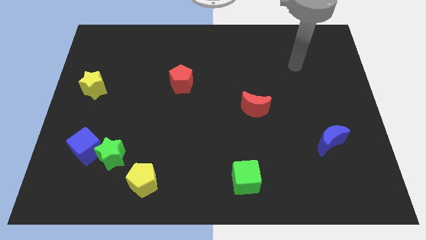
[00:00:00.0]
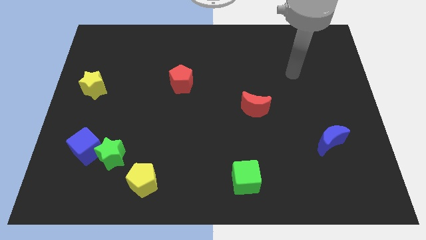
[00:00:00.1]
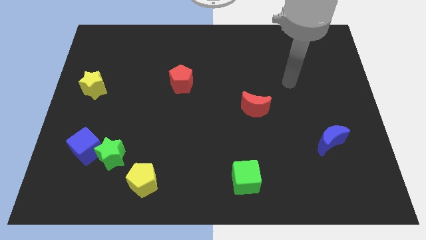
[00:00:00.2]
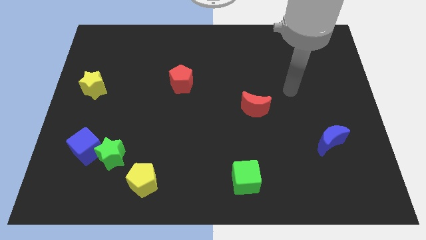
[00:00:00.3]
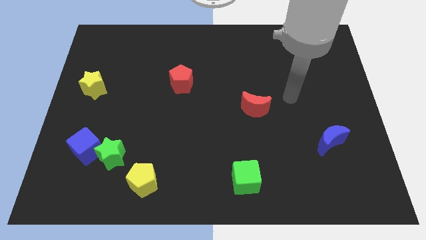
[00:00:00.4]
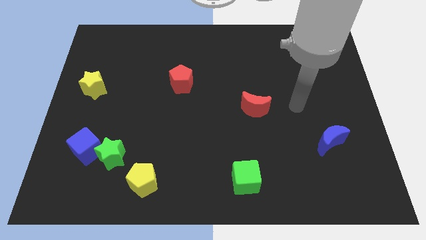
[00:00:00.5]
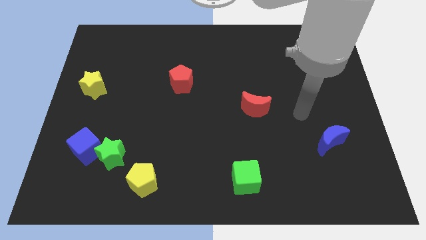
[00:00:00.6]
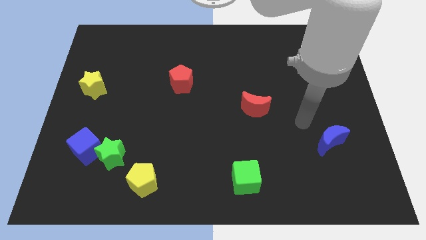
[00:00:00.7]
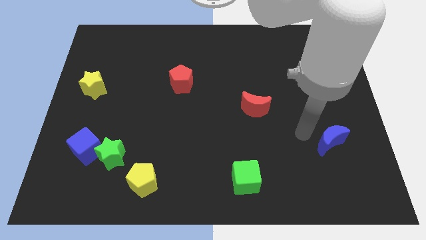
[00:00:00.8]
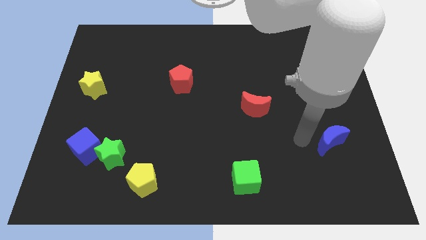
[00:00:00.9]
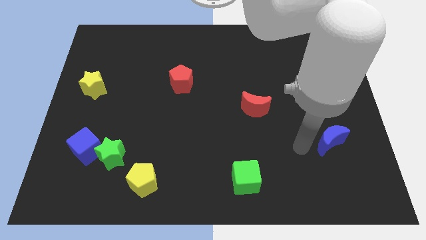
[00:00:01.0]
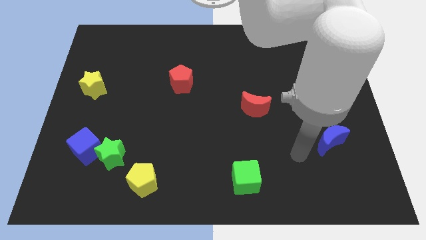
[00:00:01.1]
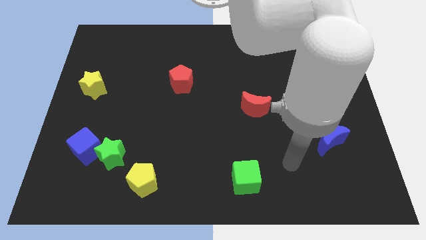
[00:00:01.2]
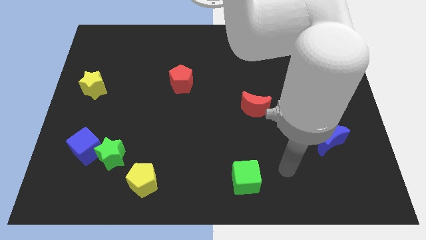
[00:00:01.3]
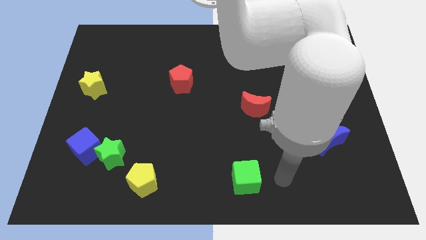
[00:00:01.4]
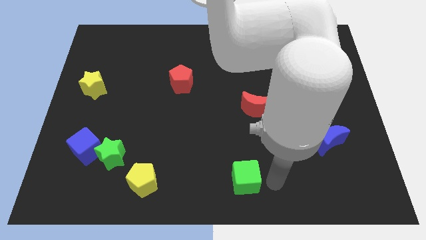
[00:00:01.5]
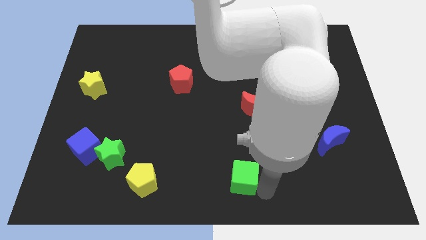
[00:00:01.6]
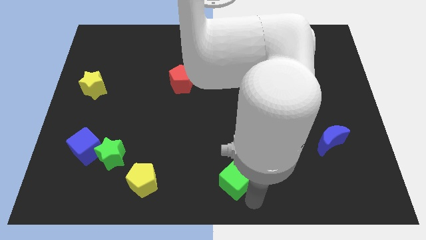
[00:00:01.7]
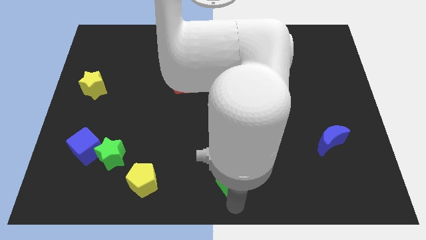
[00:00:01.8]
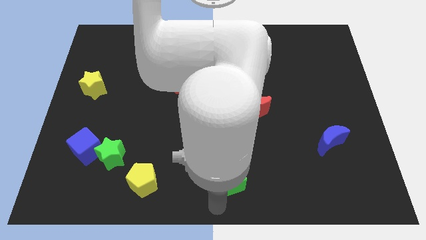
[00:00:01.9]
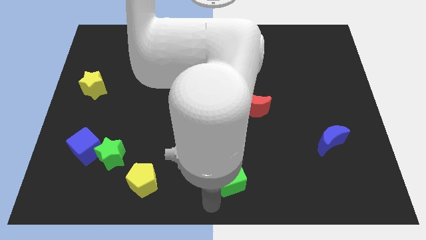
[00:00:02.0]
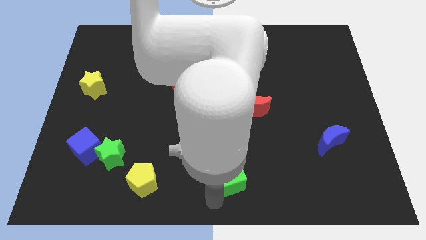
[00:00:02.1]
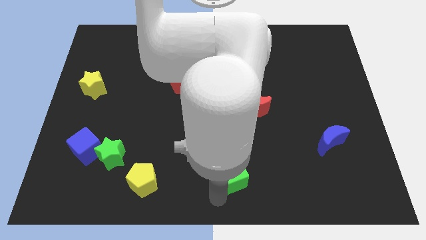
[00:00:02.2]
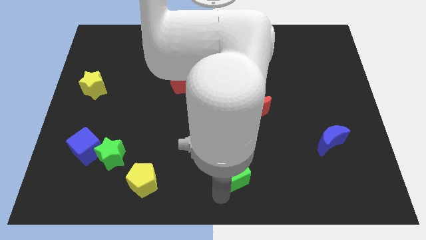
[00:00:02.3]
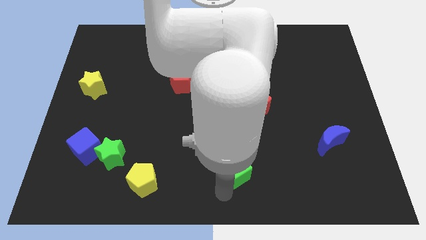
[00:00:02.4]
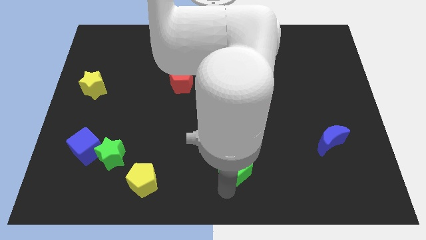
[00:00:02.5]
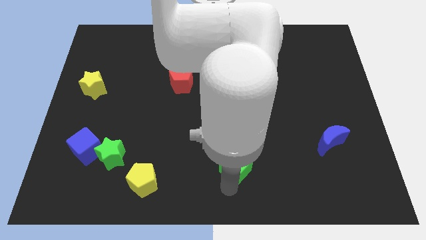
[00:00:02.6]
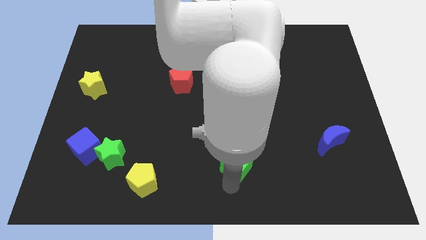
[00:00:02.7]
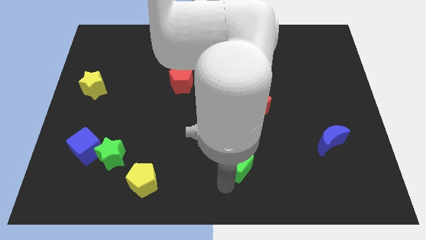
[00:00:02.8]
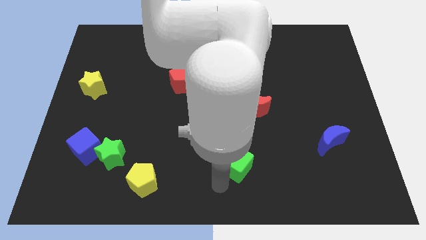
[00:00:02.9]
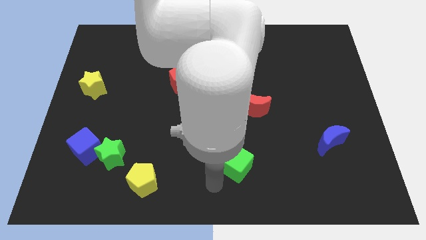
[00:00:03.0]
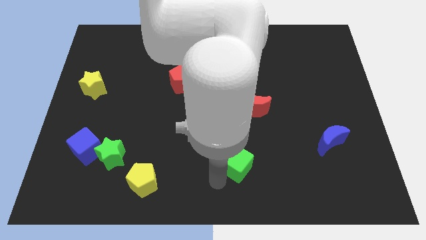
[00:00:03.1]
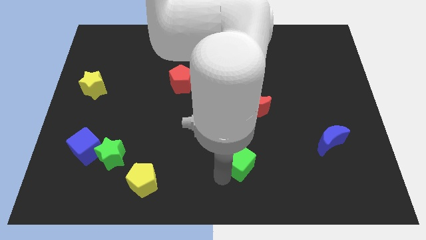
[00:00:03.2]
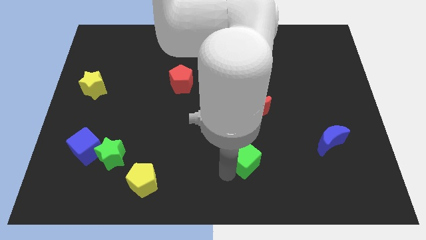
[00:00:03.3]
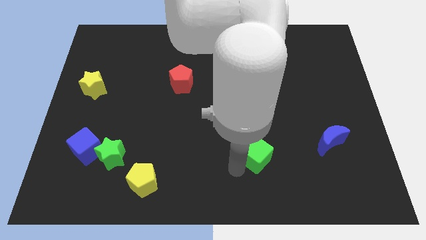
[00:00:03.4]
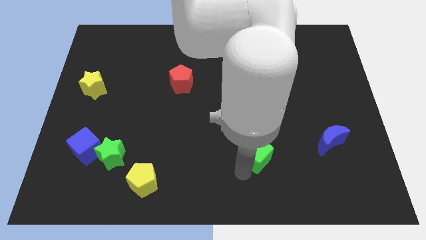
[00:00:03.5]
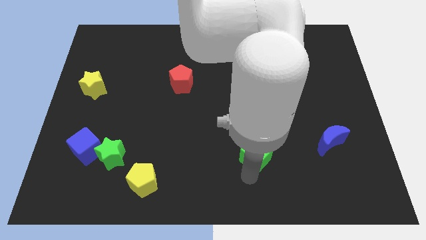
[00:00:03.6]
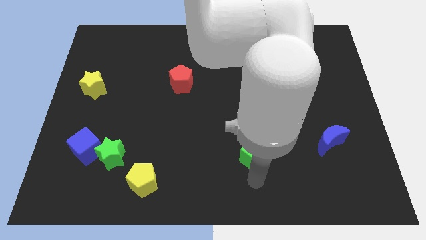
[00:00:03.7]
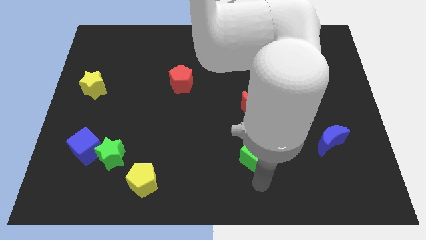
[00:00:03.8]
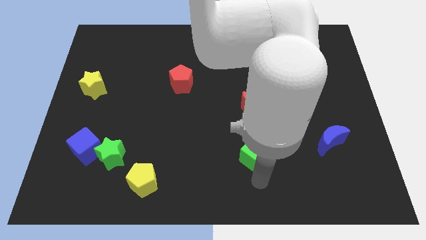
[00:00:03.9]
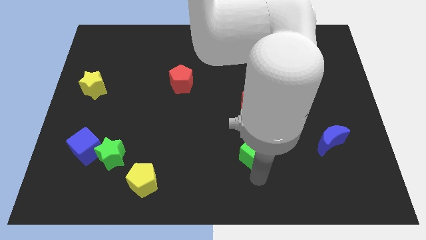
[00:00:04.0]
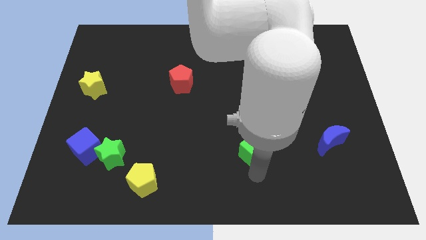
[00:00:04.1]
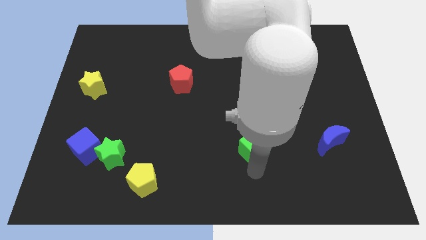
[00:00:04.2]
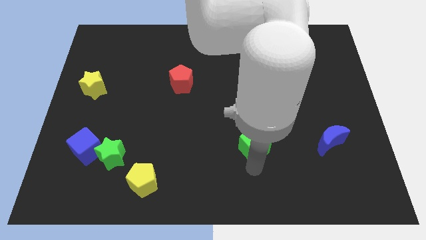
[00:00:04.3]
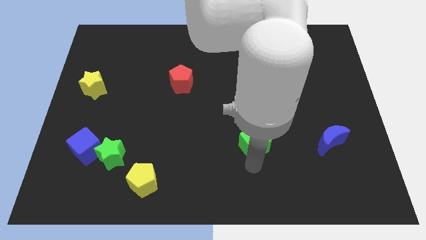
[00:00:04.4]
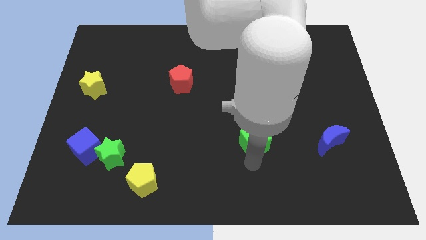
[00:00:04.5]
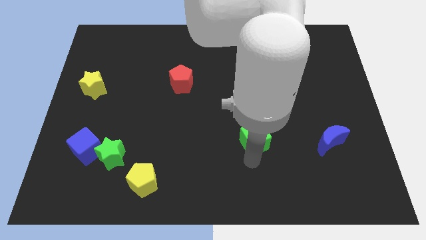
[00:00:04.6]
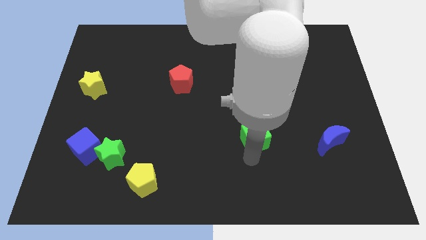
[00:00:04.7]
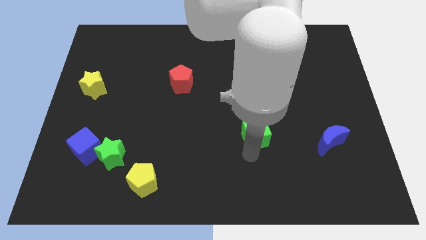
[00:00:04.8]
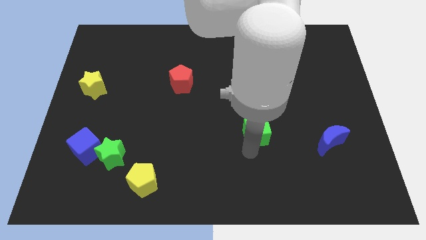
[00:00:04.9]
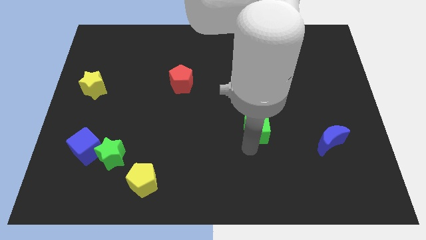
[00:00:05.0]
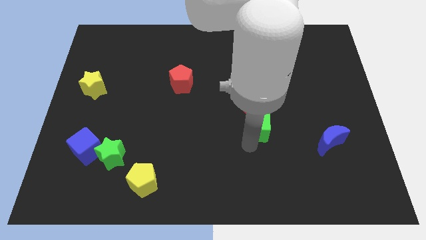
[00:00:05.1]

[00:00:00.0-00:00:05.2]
put the green cube to the red moon

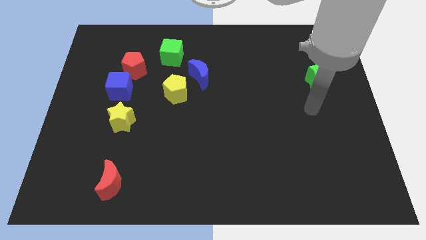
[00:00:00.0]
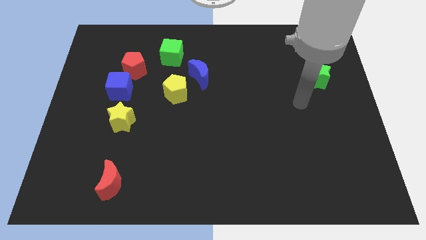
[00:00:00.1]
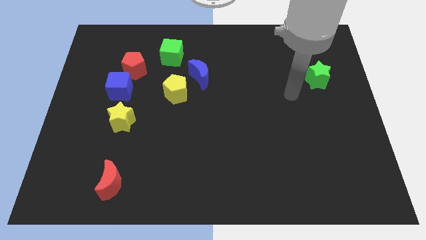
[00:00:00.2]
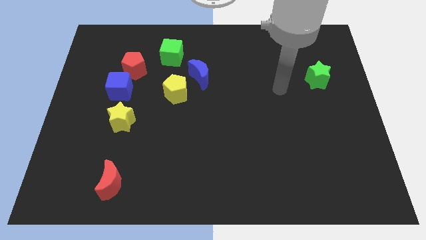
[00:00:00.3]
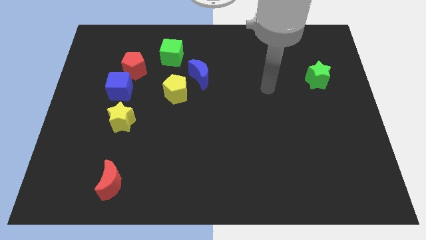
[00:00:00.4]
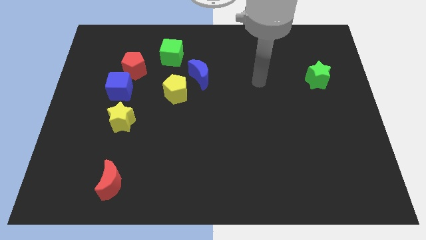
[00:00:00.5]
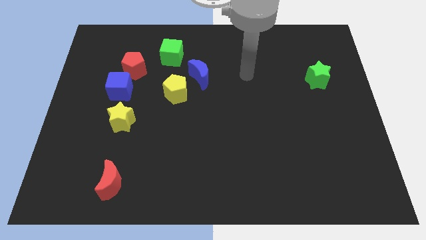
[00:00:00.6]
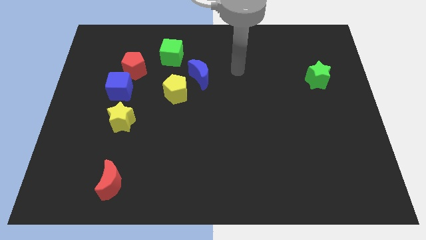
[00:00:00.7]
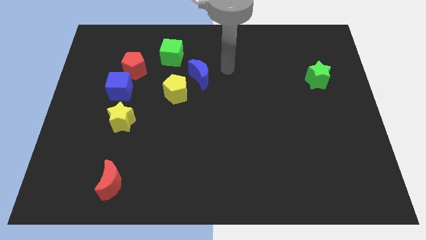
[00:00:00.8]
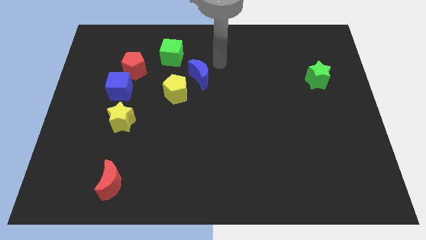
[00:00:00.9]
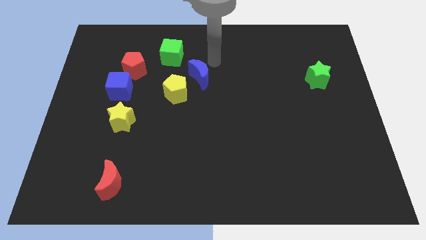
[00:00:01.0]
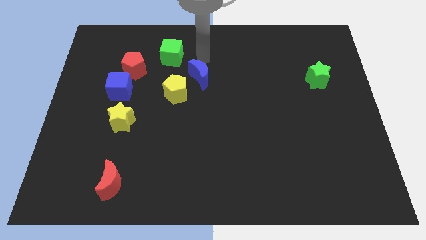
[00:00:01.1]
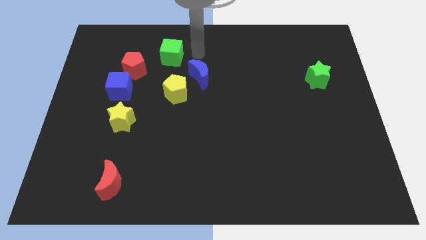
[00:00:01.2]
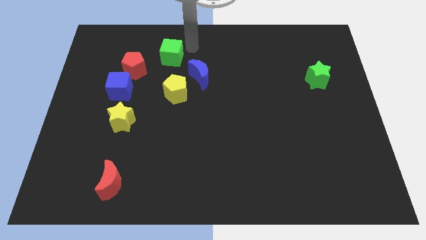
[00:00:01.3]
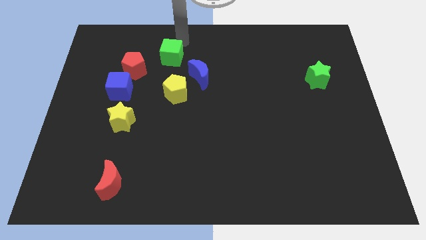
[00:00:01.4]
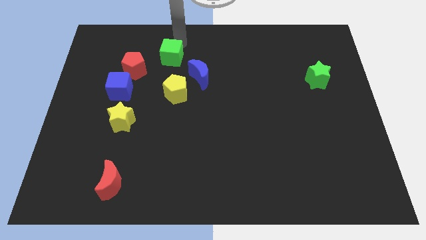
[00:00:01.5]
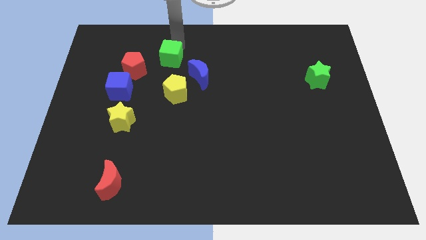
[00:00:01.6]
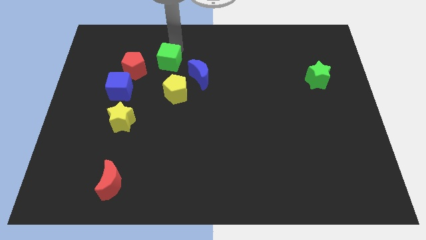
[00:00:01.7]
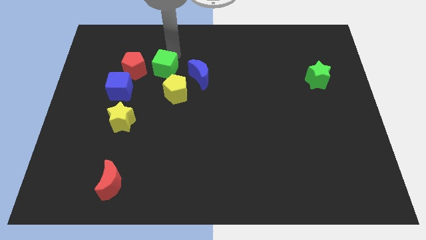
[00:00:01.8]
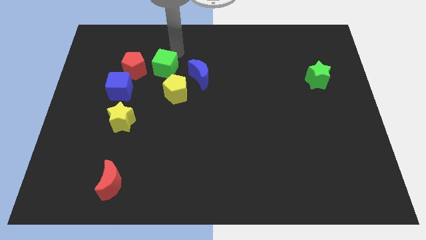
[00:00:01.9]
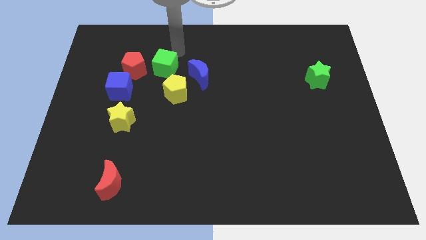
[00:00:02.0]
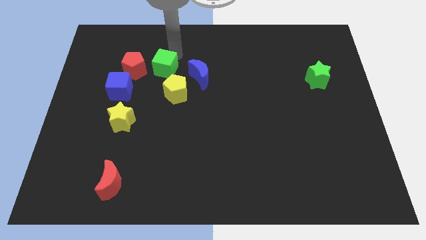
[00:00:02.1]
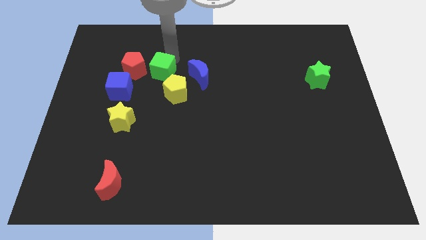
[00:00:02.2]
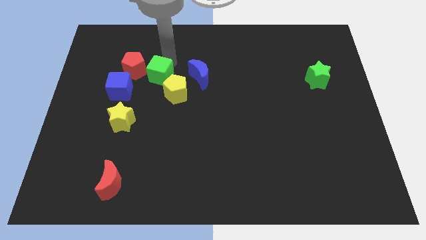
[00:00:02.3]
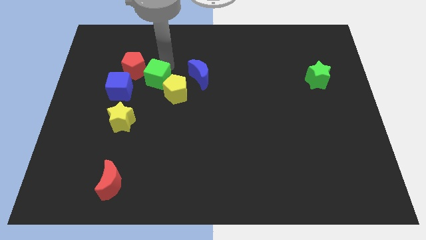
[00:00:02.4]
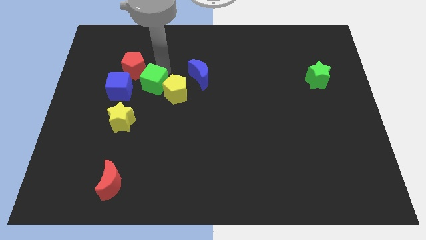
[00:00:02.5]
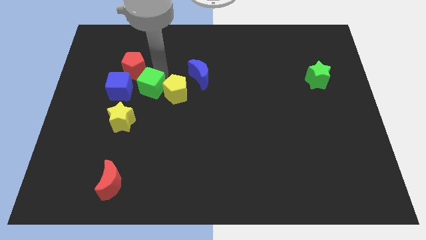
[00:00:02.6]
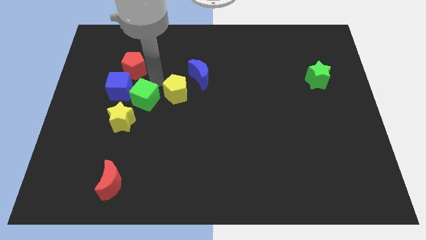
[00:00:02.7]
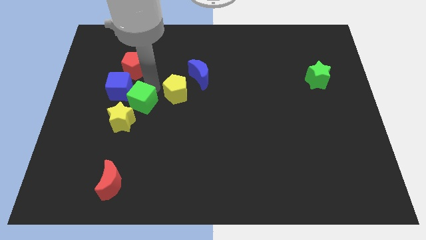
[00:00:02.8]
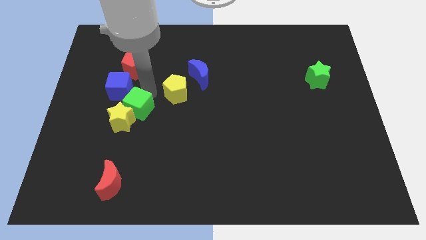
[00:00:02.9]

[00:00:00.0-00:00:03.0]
put the green cube towards the yellow star
